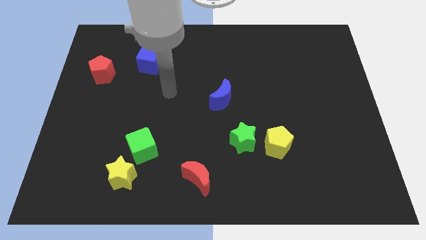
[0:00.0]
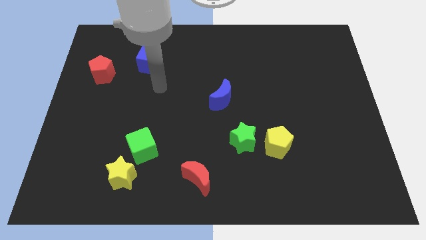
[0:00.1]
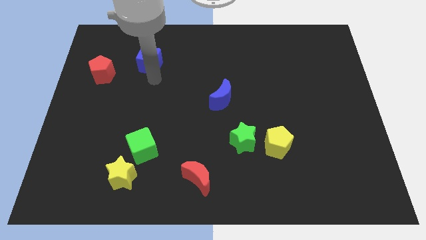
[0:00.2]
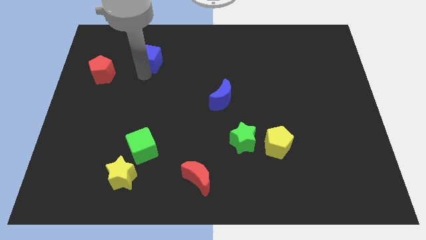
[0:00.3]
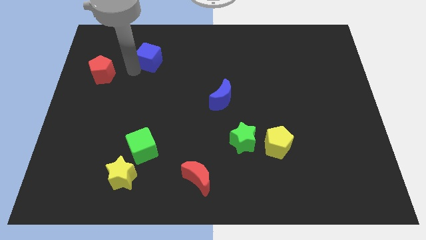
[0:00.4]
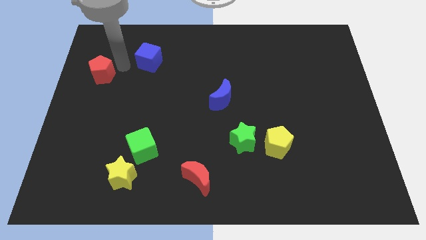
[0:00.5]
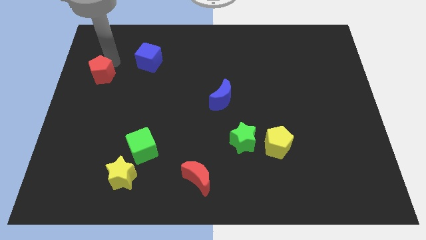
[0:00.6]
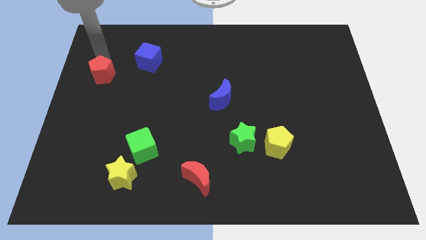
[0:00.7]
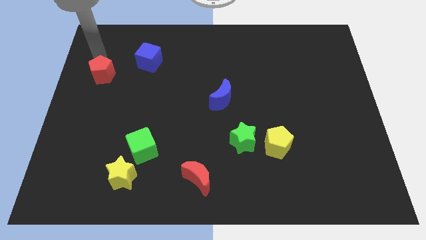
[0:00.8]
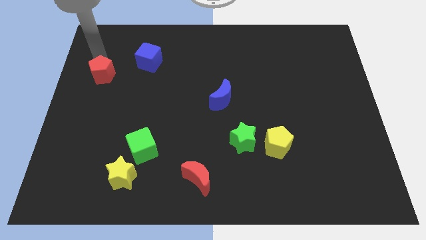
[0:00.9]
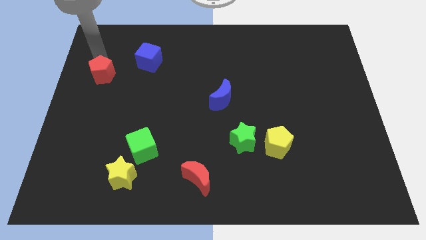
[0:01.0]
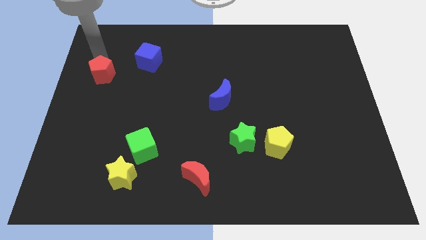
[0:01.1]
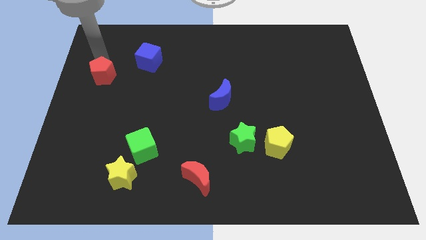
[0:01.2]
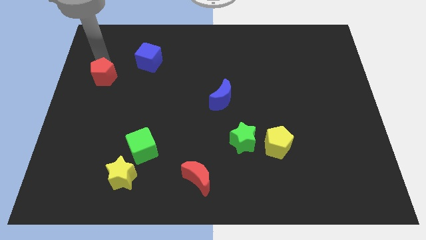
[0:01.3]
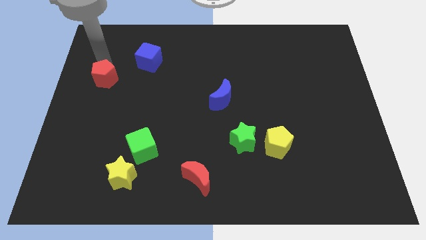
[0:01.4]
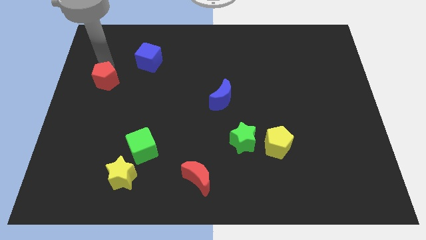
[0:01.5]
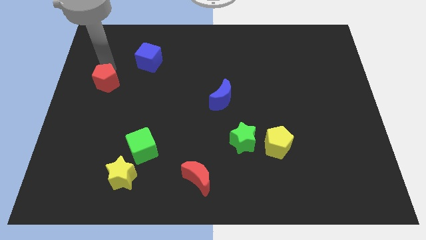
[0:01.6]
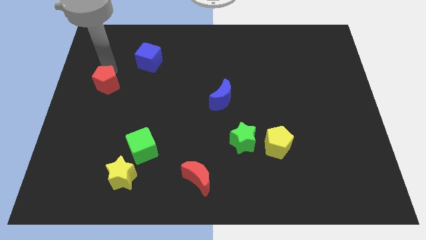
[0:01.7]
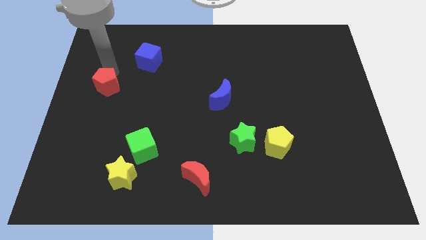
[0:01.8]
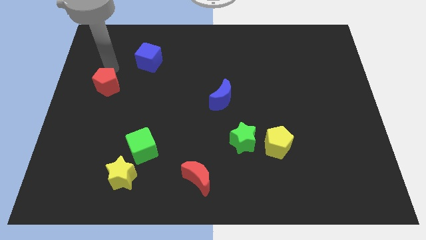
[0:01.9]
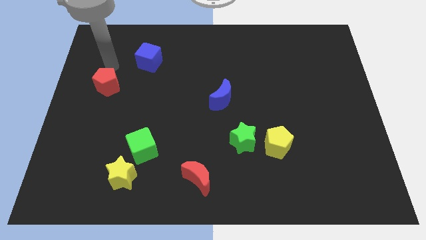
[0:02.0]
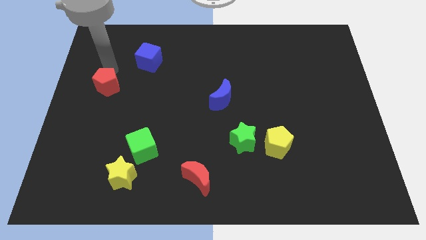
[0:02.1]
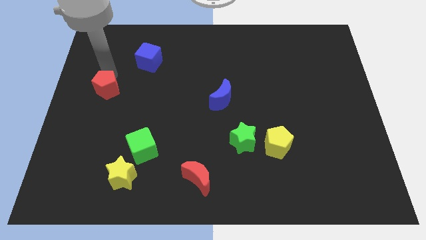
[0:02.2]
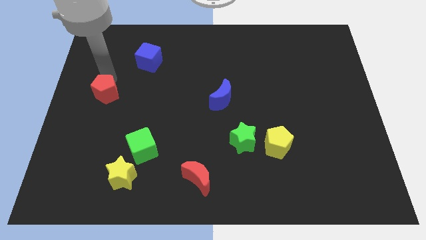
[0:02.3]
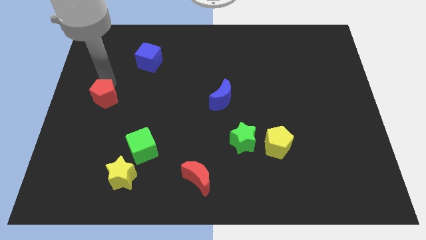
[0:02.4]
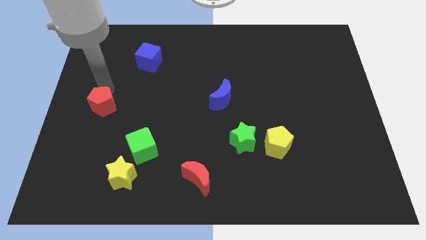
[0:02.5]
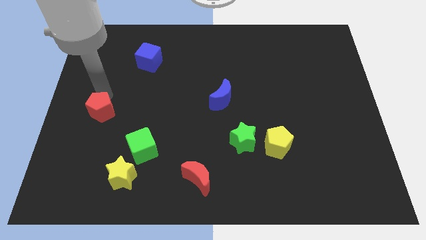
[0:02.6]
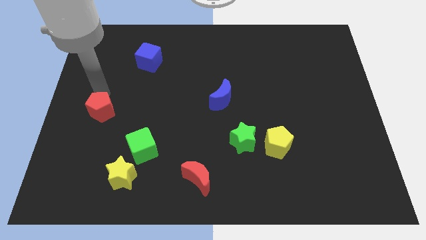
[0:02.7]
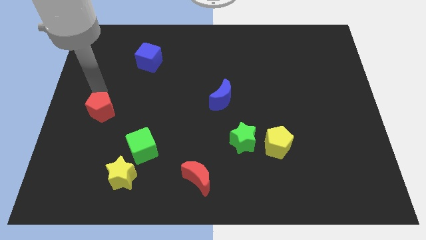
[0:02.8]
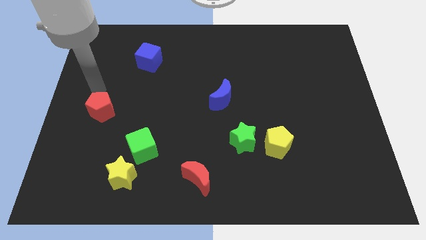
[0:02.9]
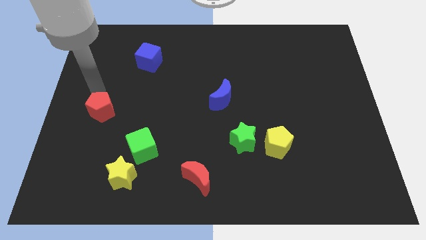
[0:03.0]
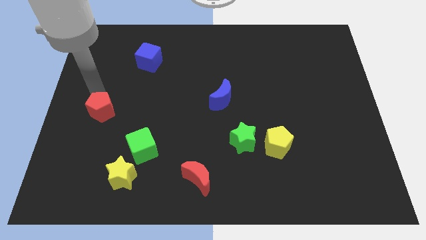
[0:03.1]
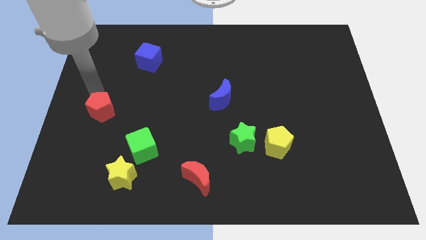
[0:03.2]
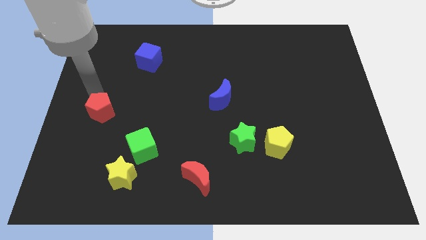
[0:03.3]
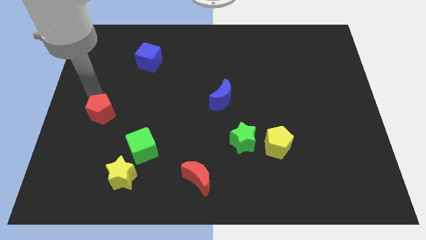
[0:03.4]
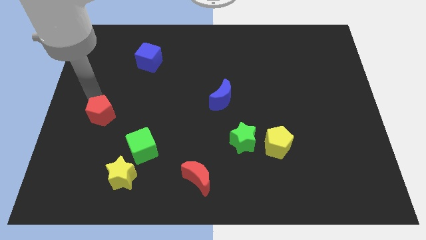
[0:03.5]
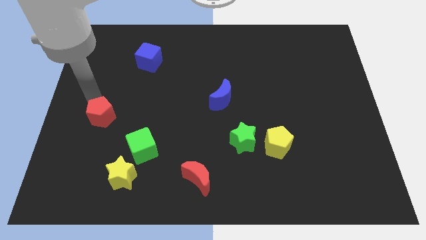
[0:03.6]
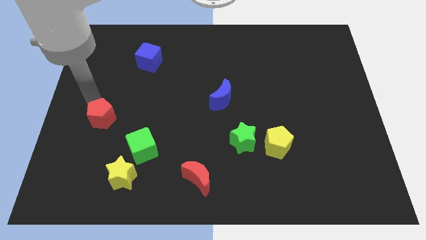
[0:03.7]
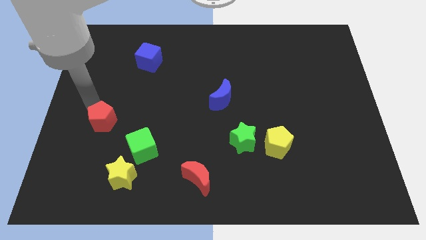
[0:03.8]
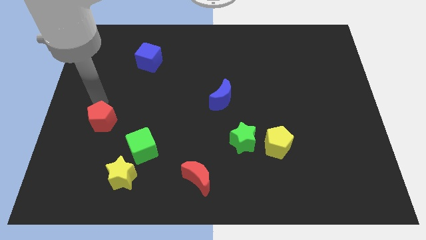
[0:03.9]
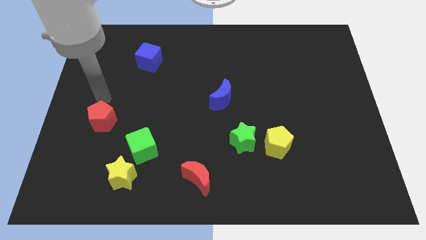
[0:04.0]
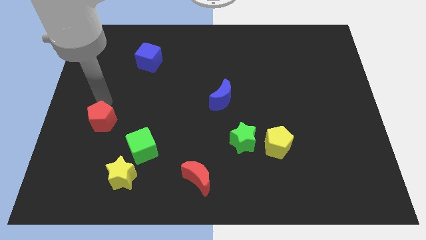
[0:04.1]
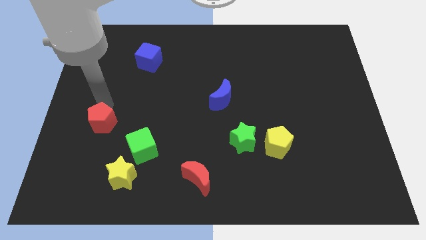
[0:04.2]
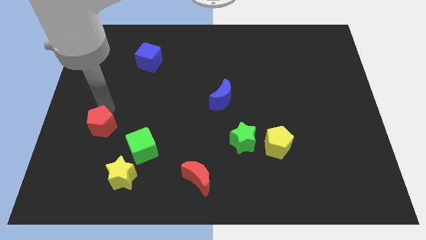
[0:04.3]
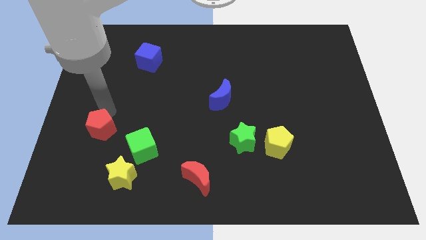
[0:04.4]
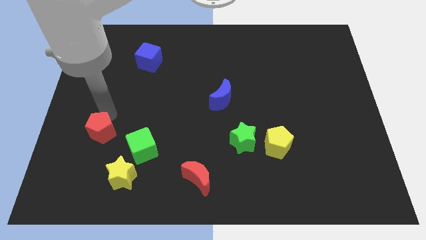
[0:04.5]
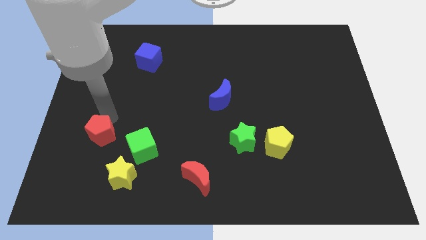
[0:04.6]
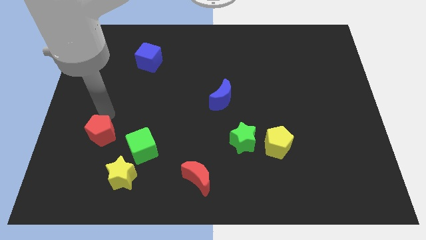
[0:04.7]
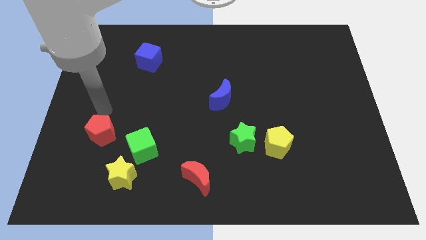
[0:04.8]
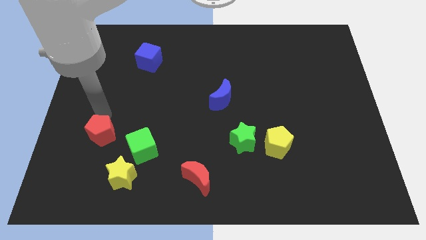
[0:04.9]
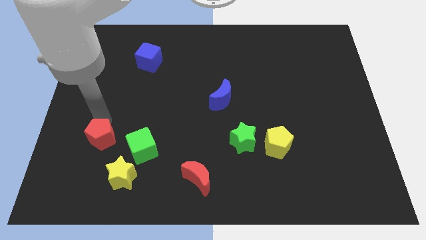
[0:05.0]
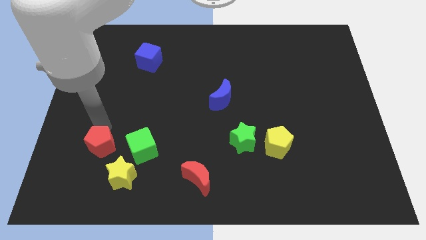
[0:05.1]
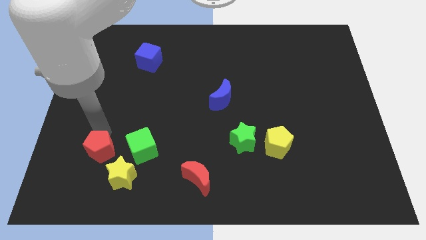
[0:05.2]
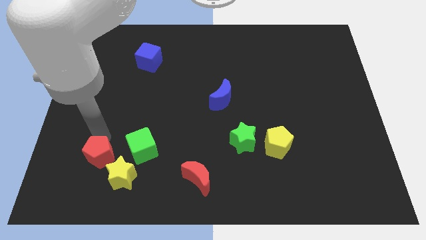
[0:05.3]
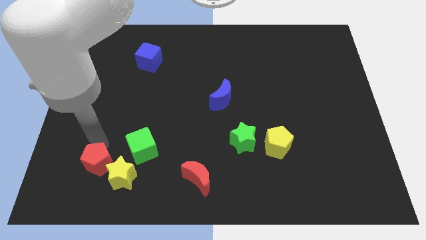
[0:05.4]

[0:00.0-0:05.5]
push the red pentagon diagonally down and to the left of the green cube

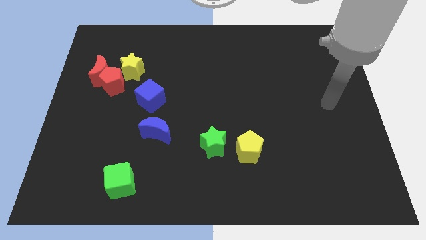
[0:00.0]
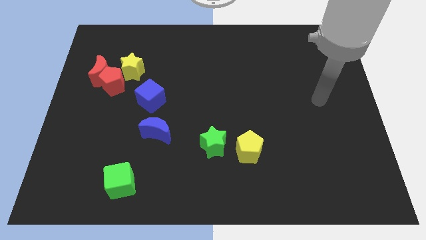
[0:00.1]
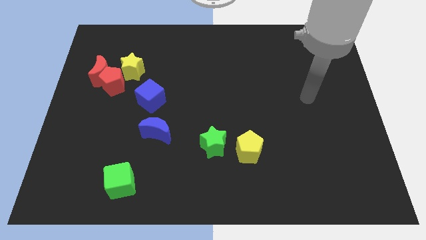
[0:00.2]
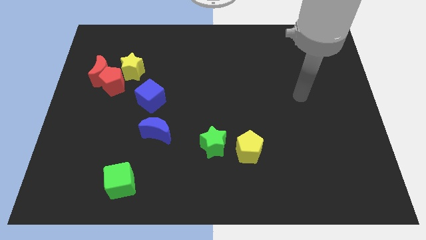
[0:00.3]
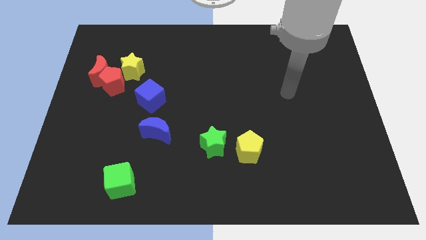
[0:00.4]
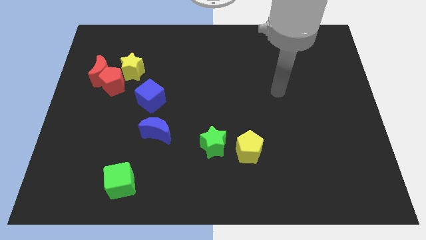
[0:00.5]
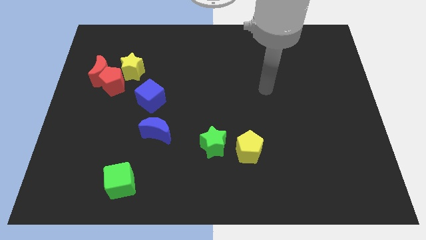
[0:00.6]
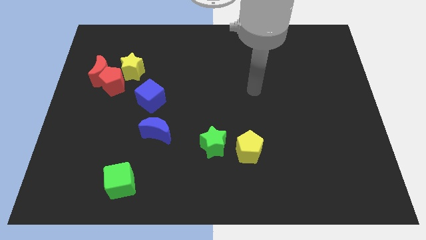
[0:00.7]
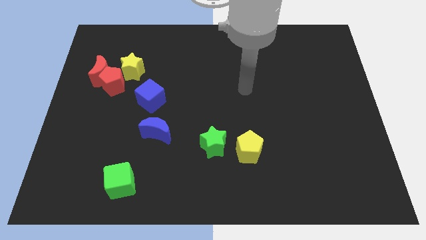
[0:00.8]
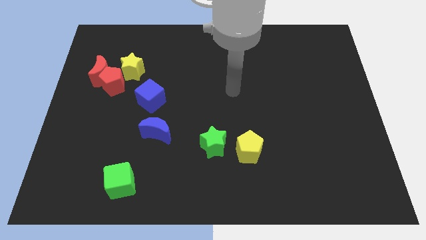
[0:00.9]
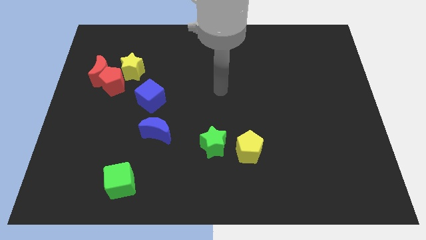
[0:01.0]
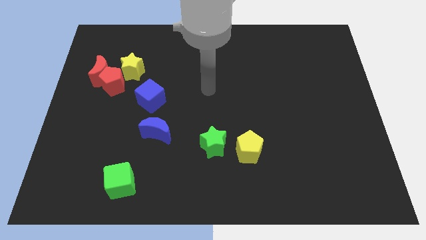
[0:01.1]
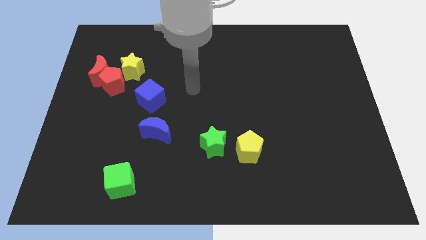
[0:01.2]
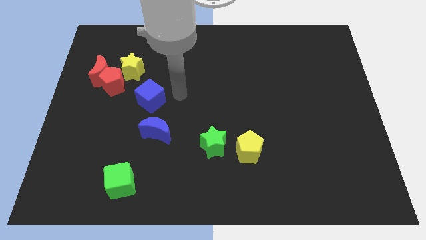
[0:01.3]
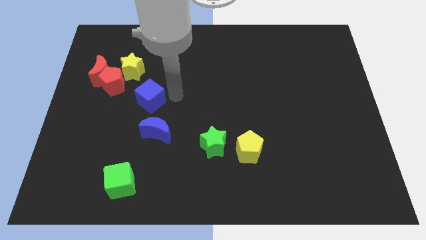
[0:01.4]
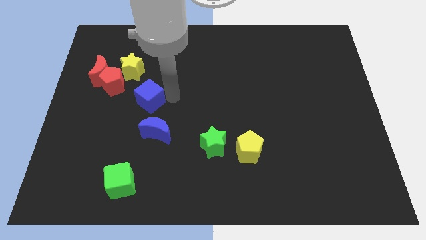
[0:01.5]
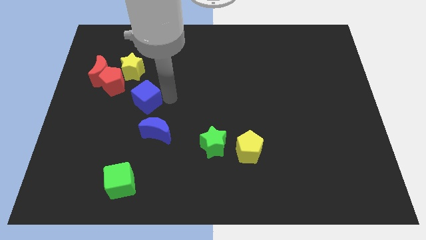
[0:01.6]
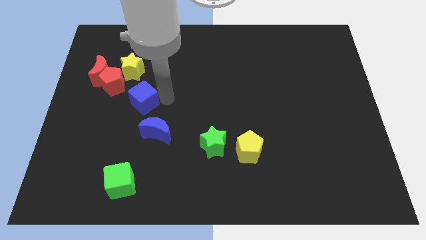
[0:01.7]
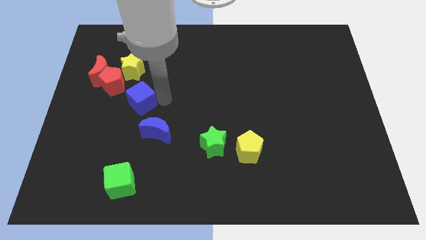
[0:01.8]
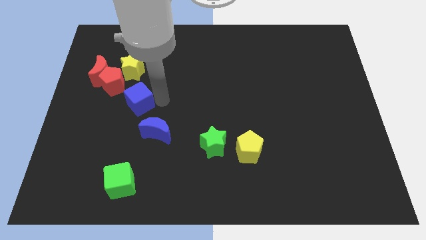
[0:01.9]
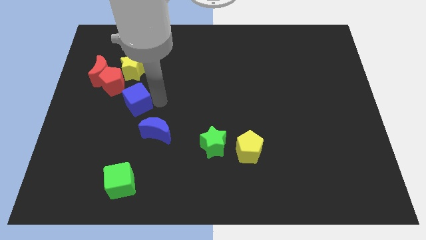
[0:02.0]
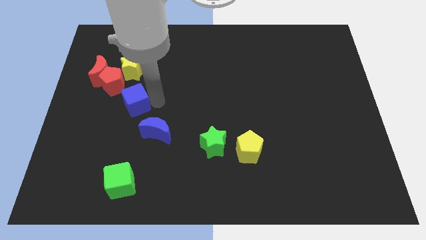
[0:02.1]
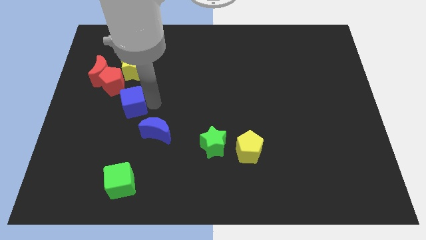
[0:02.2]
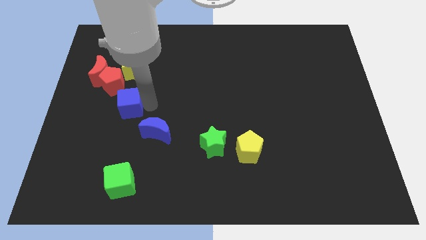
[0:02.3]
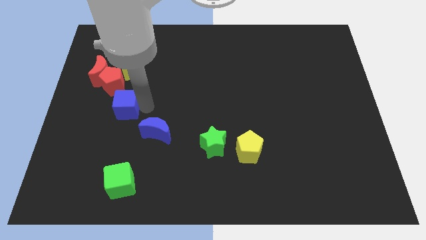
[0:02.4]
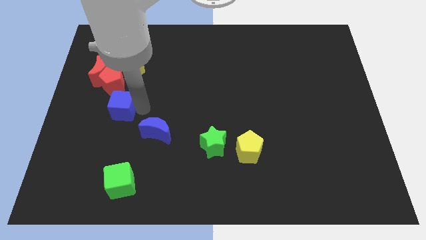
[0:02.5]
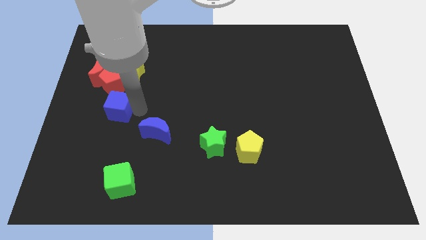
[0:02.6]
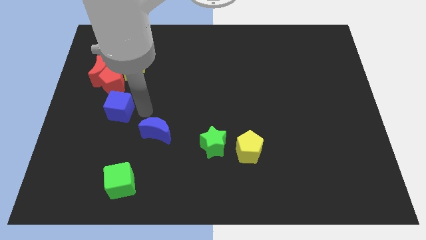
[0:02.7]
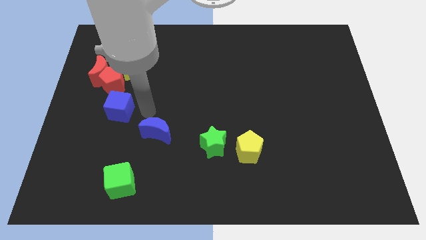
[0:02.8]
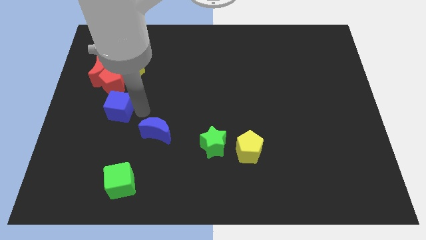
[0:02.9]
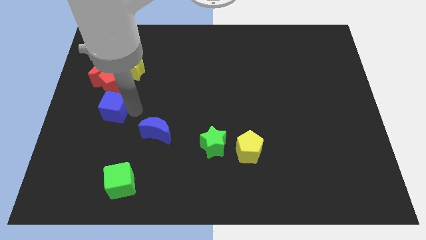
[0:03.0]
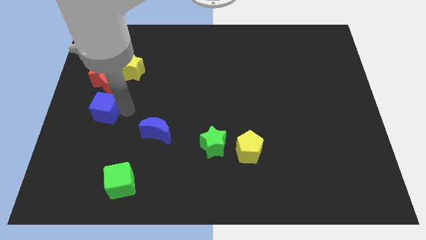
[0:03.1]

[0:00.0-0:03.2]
move the blue cube below the red moon
